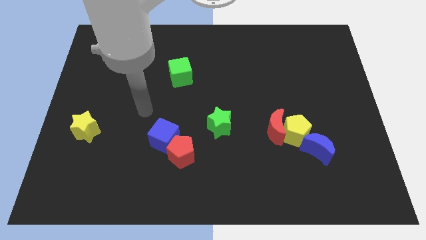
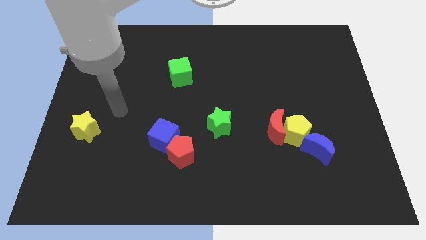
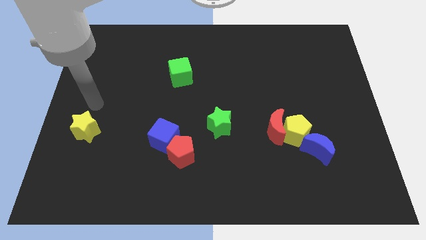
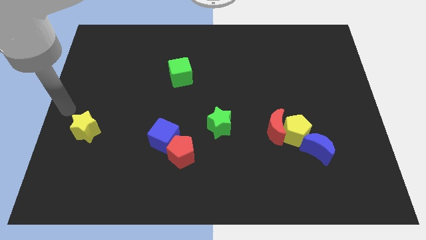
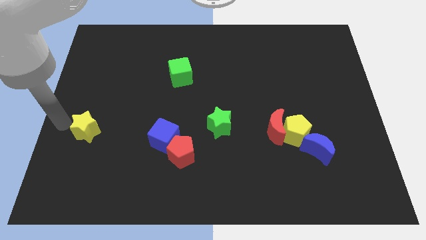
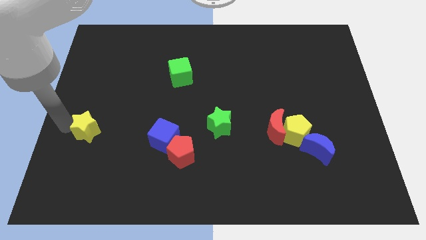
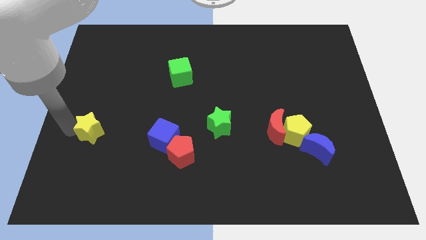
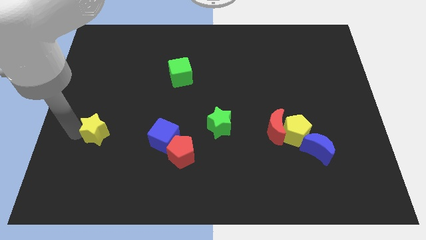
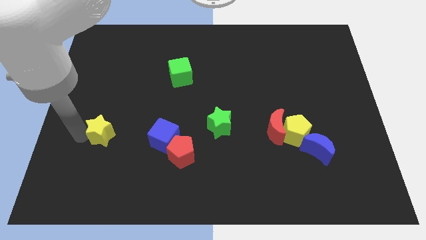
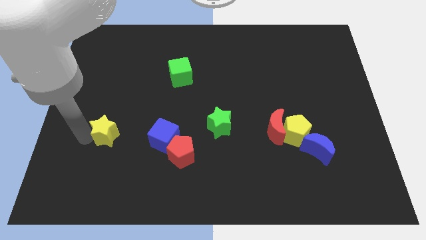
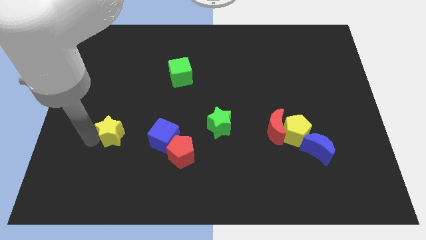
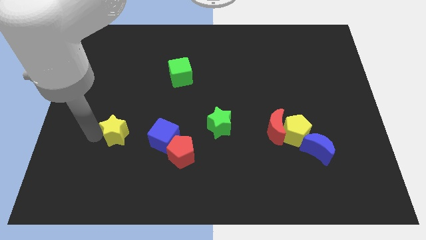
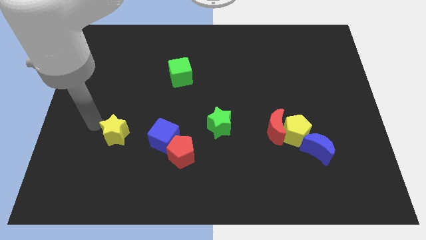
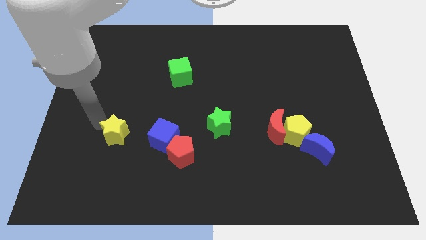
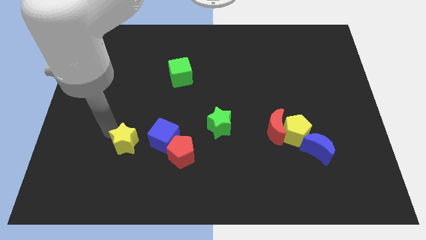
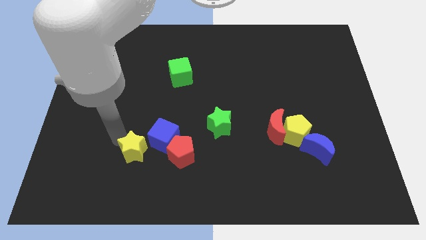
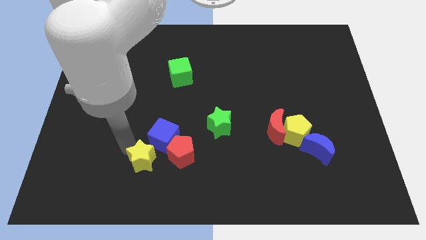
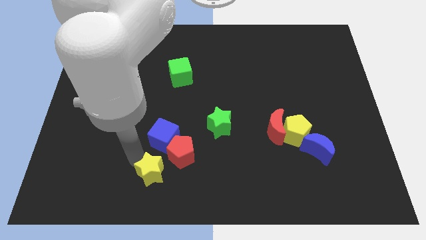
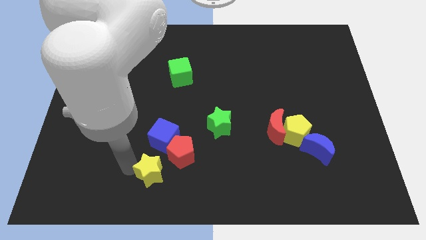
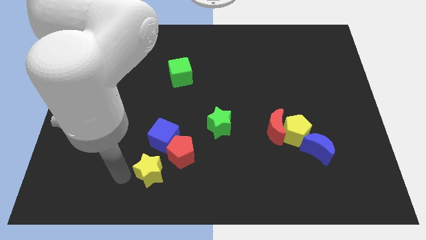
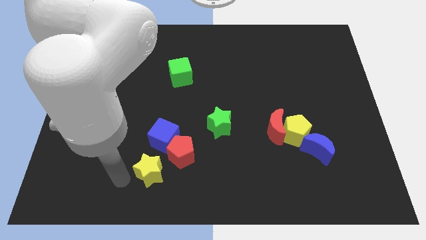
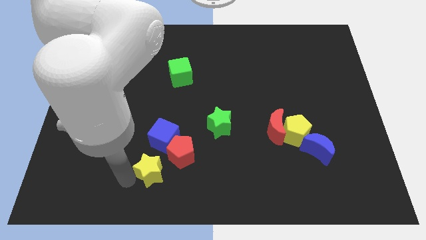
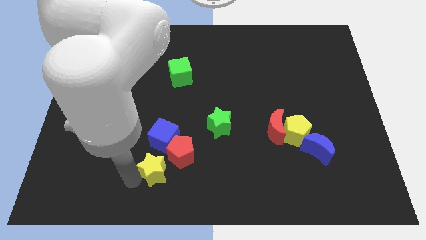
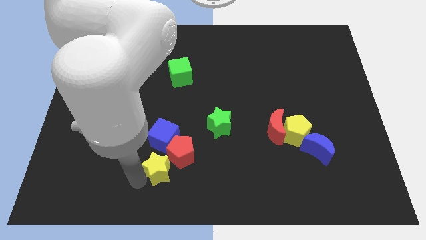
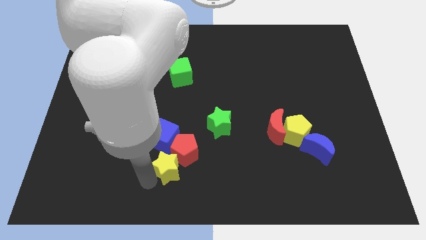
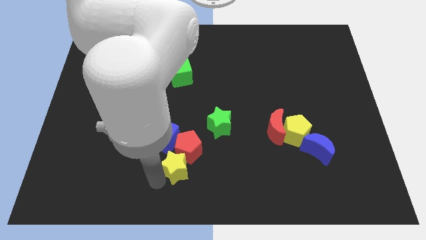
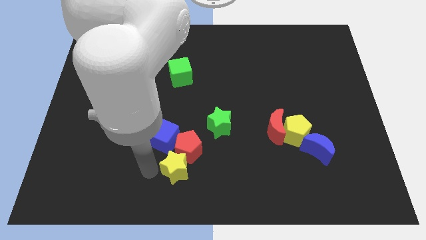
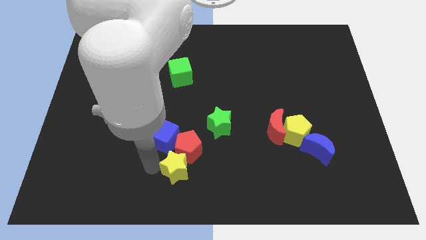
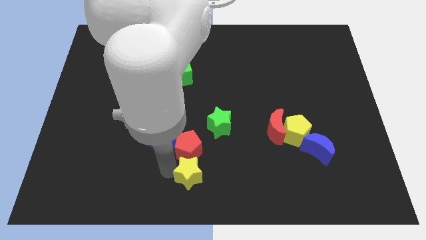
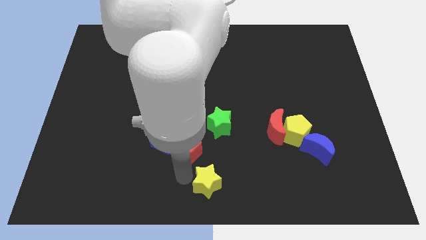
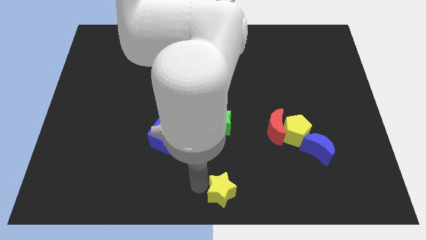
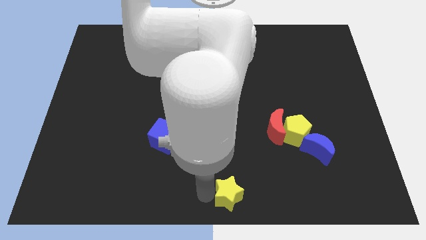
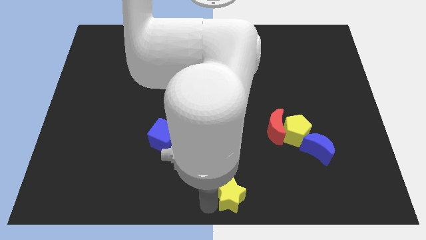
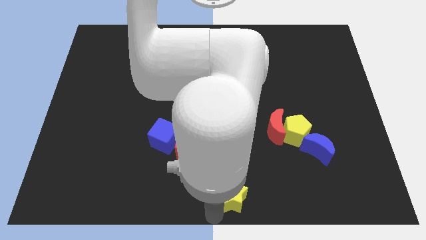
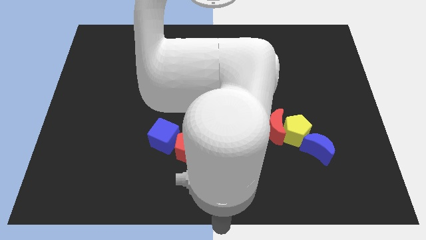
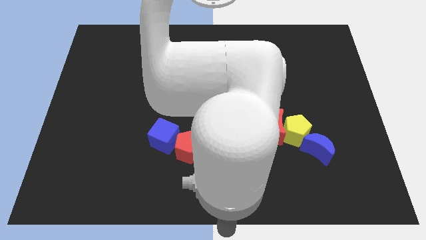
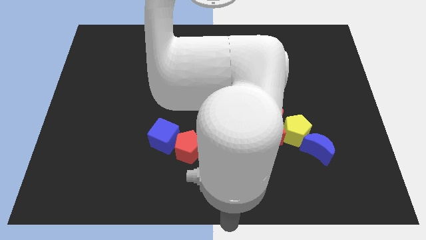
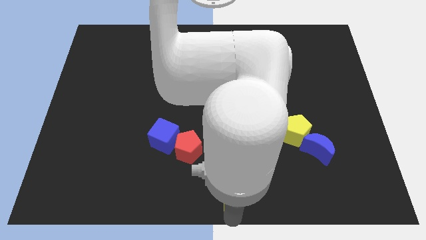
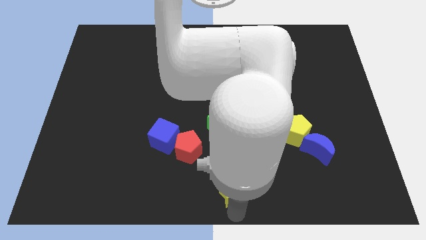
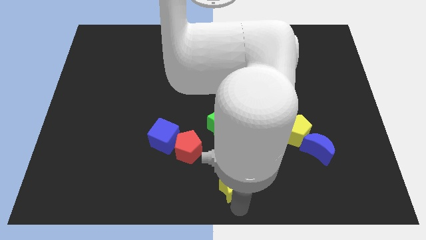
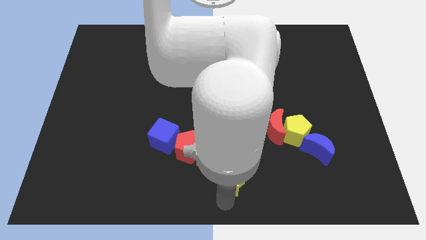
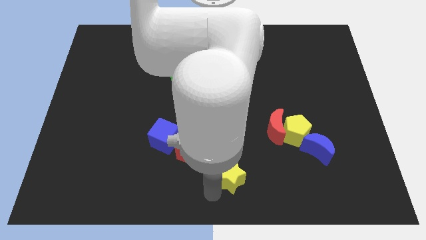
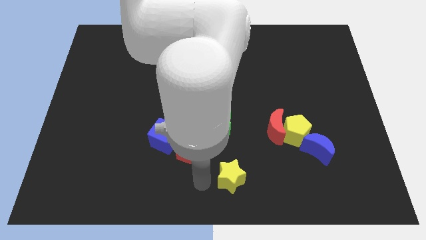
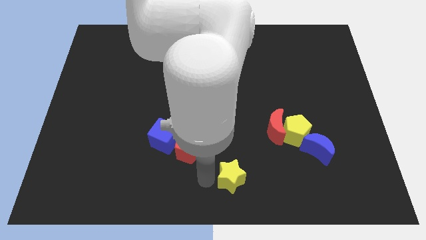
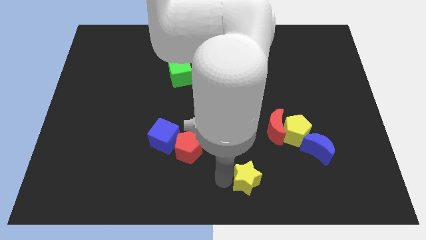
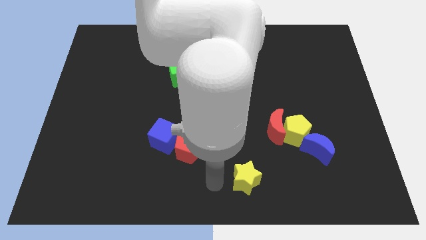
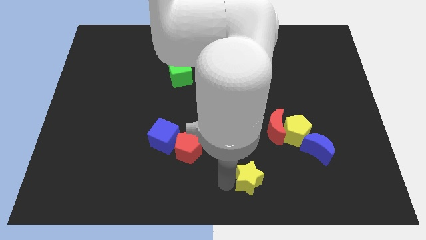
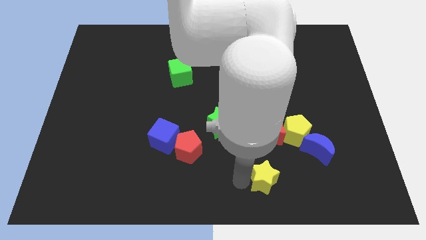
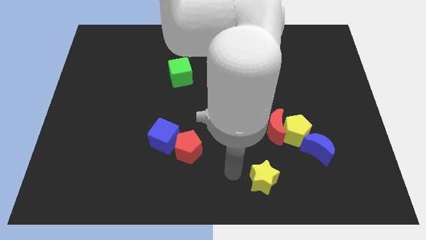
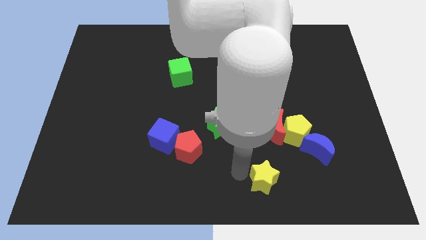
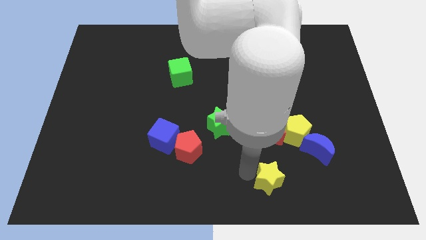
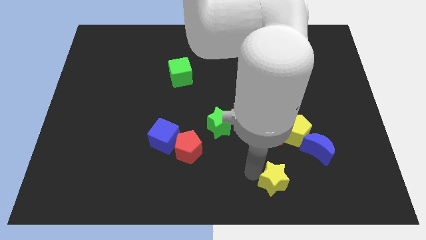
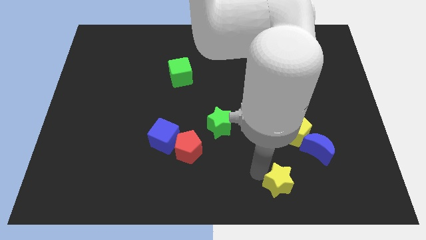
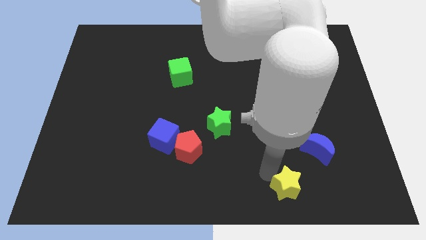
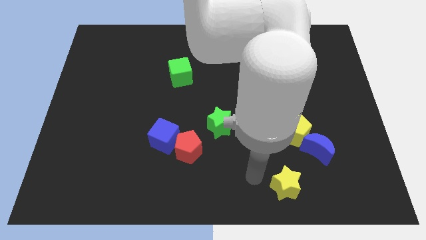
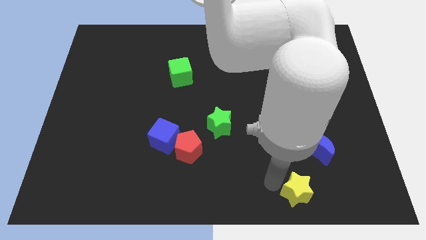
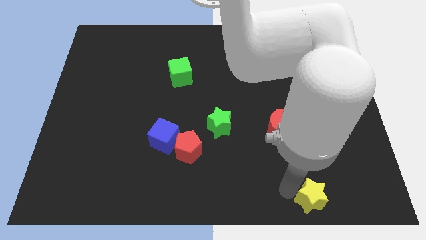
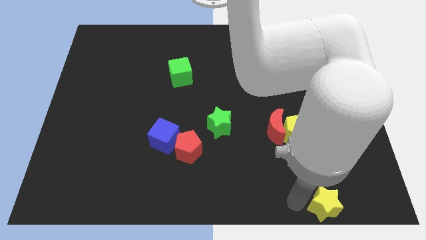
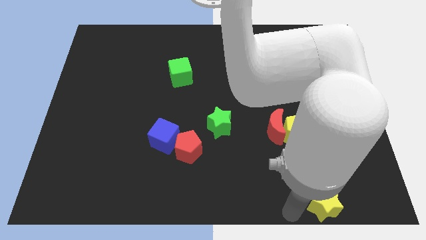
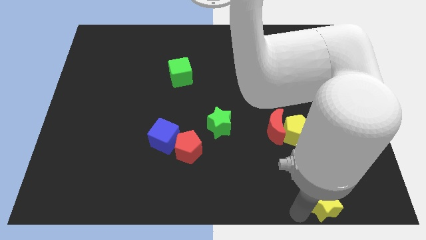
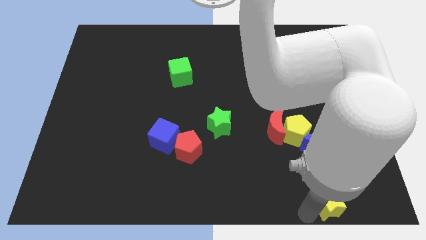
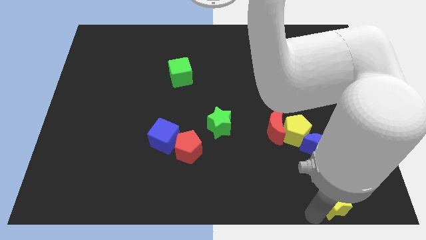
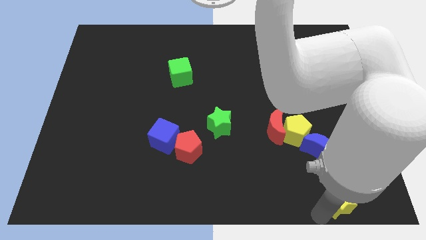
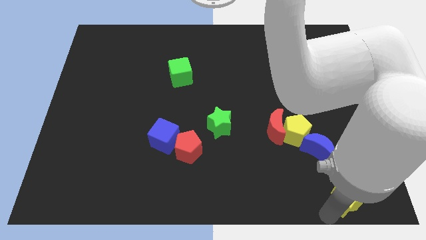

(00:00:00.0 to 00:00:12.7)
push the yellow star to the bottom right

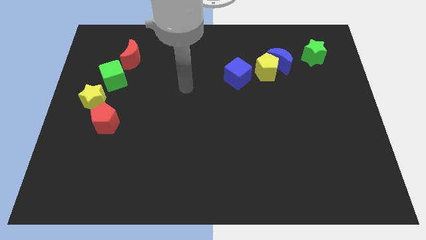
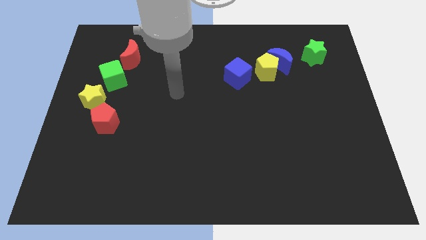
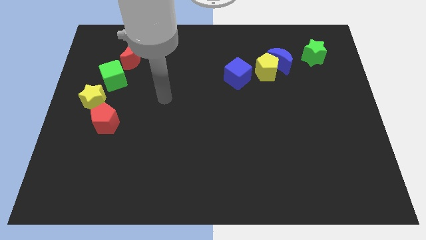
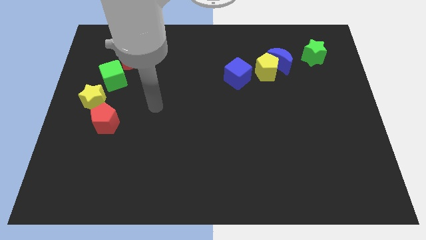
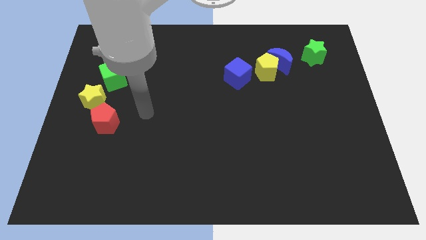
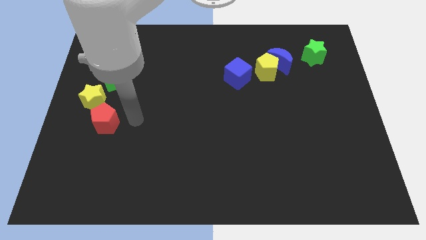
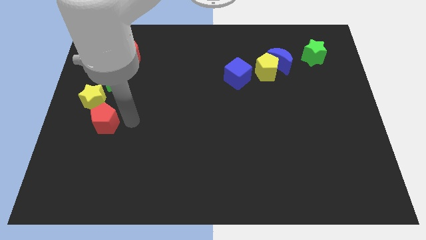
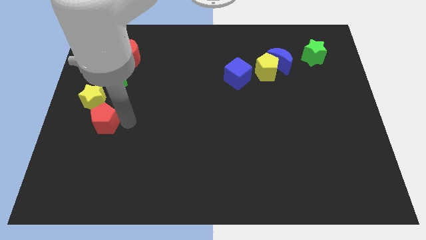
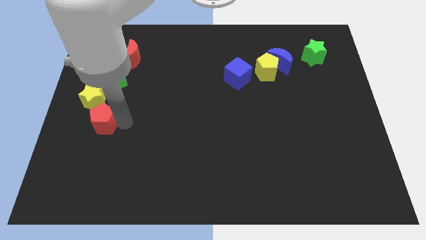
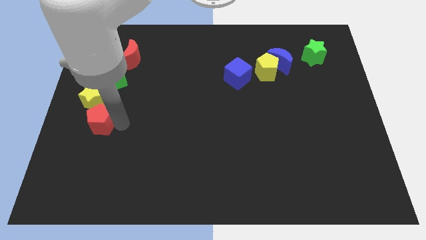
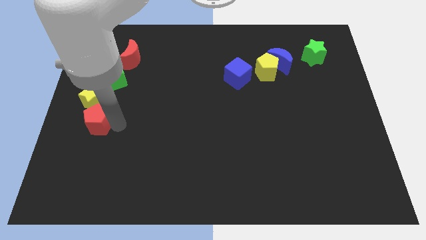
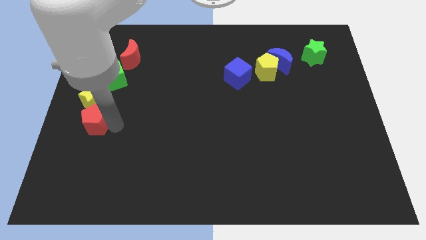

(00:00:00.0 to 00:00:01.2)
move the red pentagon to the left side
